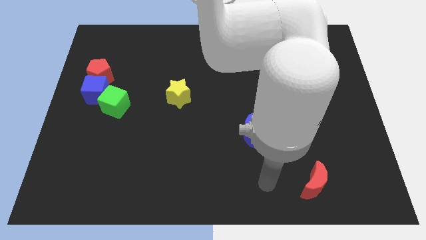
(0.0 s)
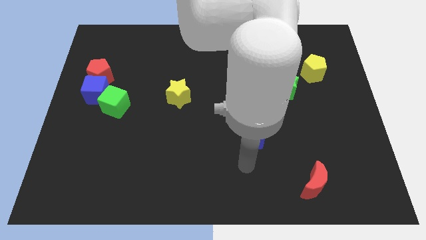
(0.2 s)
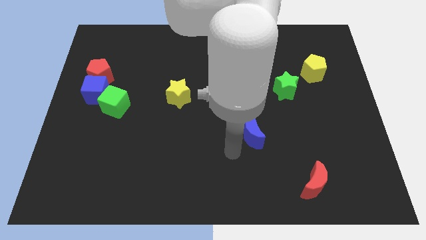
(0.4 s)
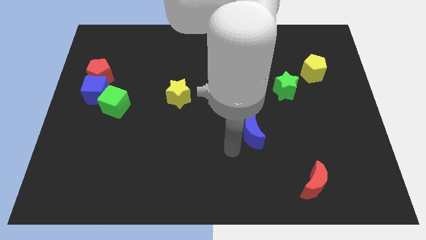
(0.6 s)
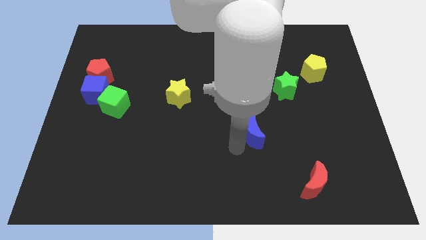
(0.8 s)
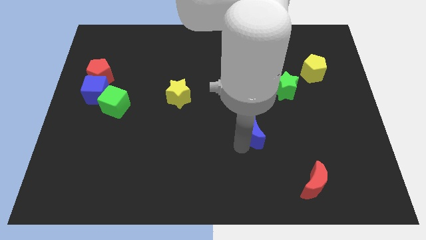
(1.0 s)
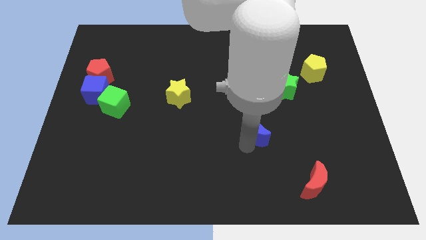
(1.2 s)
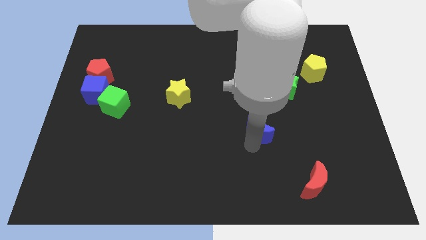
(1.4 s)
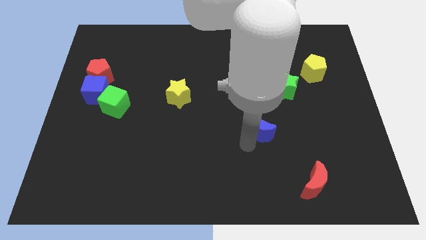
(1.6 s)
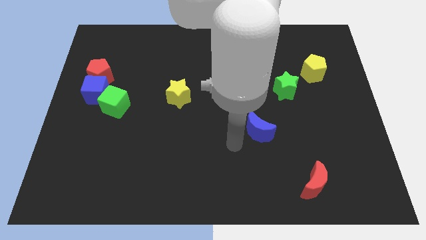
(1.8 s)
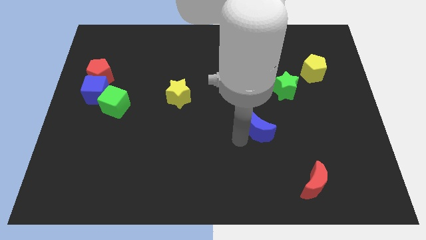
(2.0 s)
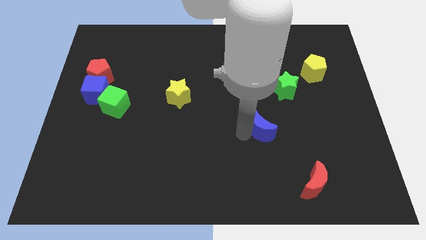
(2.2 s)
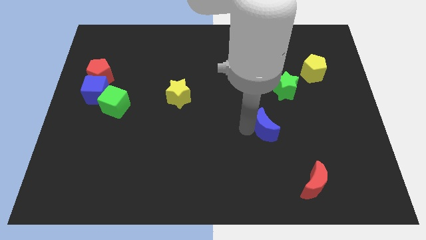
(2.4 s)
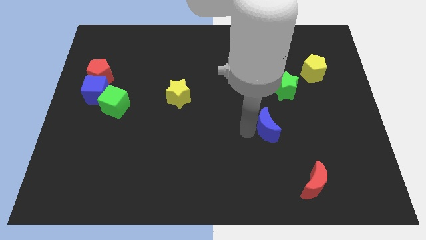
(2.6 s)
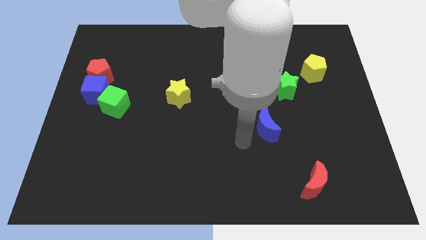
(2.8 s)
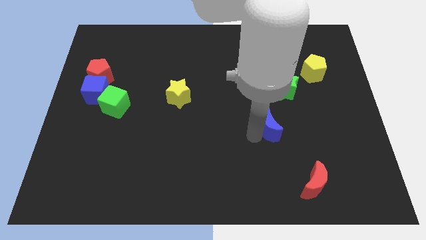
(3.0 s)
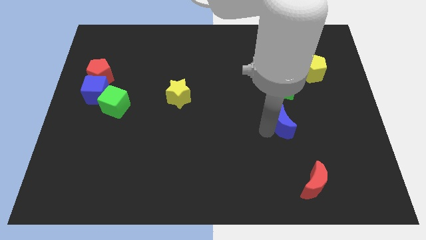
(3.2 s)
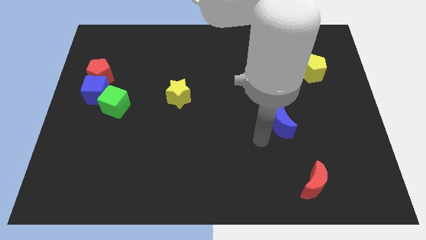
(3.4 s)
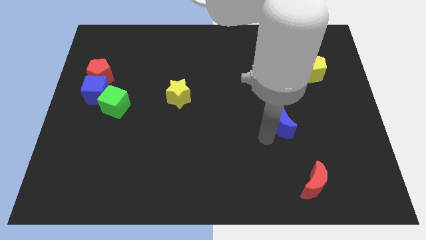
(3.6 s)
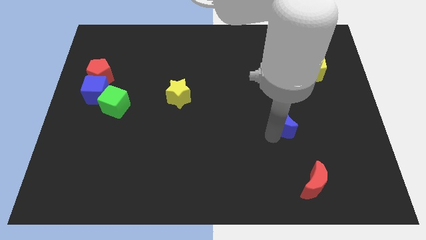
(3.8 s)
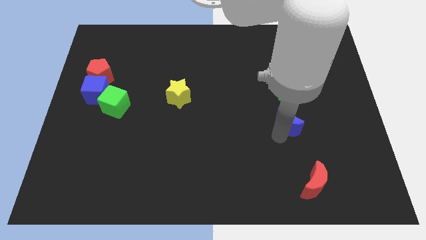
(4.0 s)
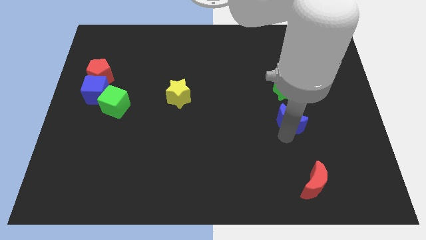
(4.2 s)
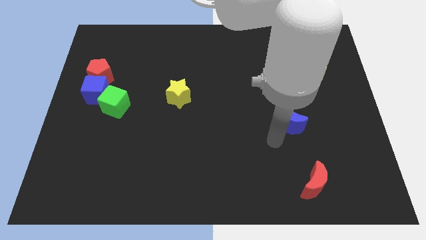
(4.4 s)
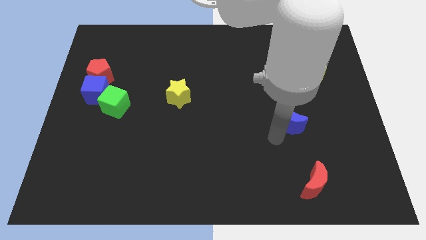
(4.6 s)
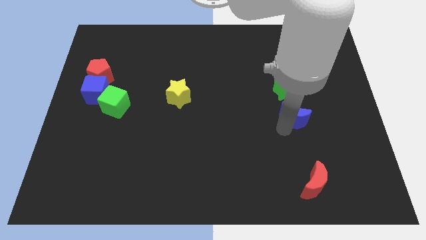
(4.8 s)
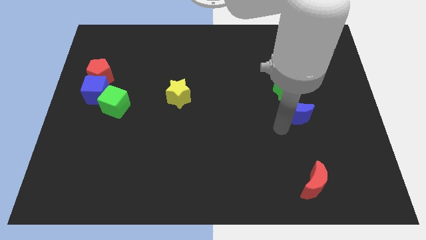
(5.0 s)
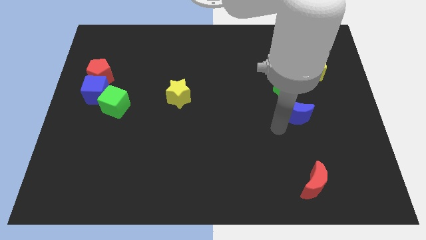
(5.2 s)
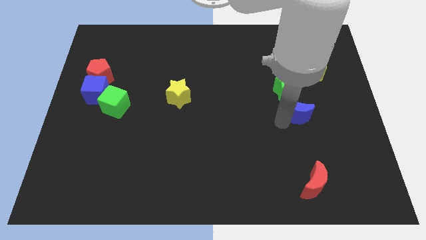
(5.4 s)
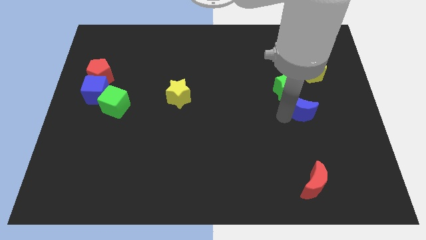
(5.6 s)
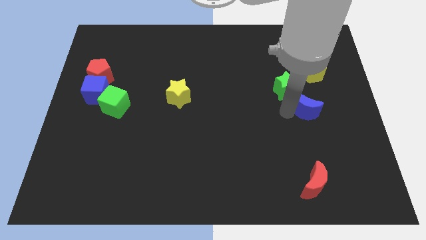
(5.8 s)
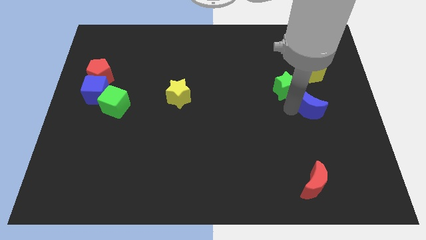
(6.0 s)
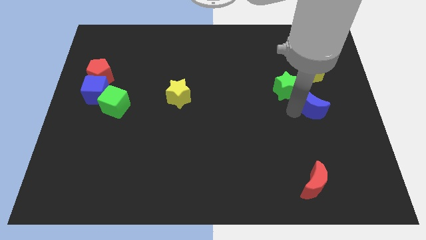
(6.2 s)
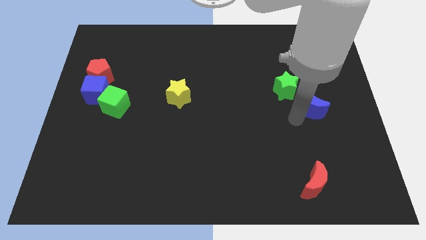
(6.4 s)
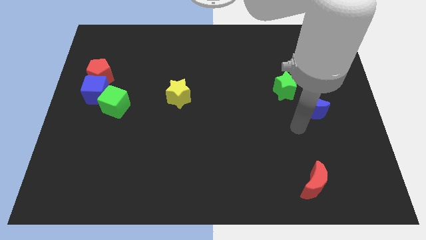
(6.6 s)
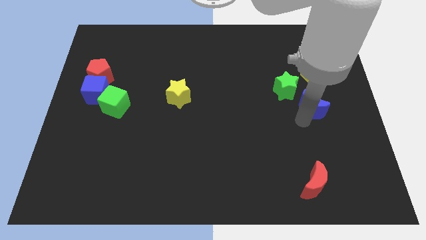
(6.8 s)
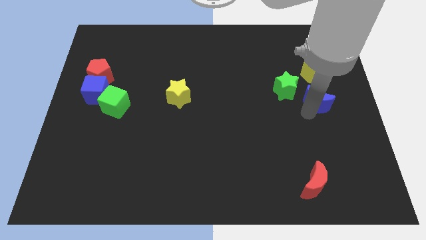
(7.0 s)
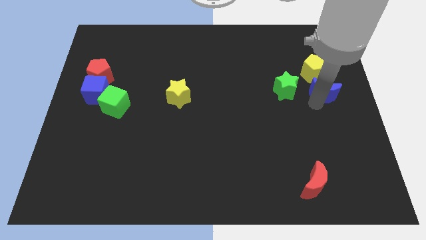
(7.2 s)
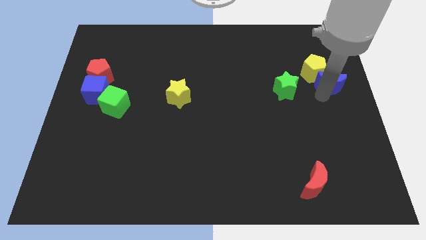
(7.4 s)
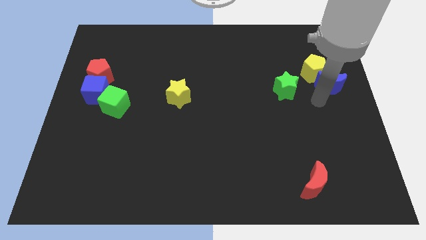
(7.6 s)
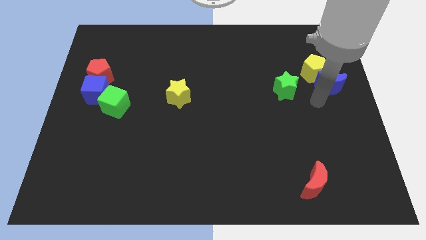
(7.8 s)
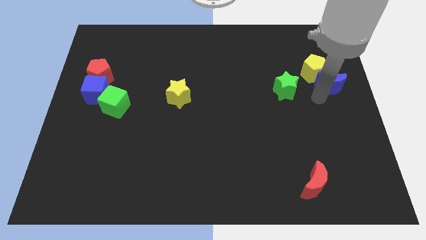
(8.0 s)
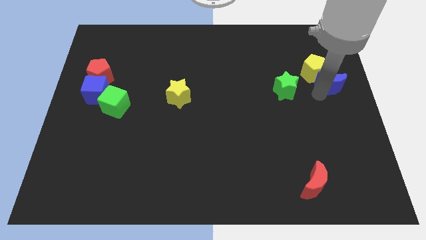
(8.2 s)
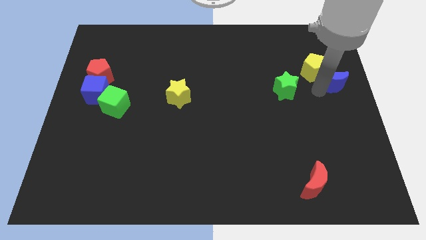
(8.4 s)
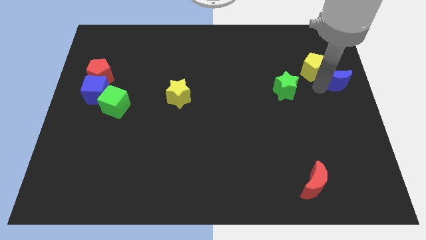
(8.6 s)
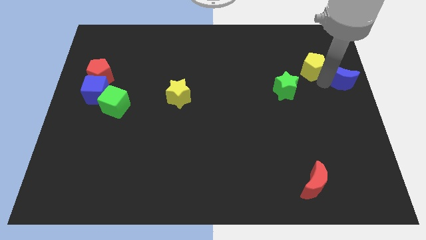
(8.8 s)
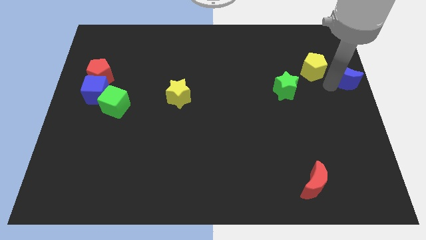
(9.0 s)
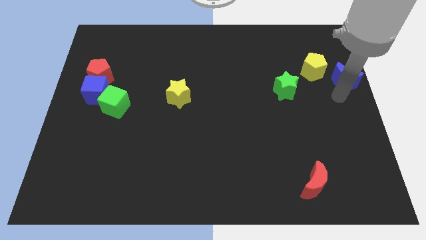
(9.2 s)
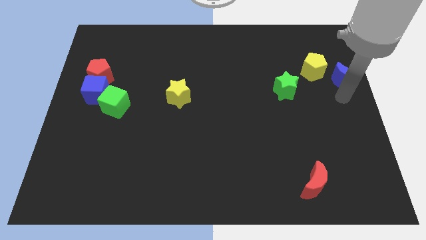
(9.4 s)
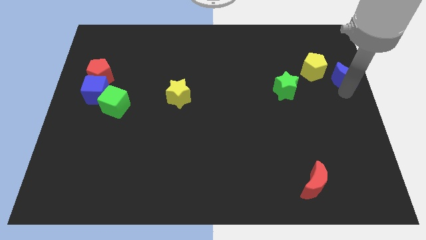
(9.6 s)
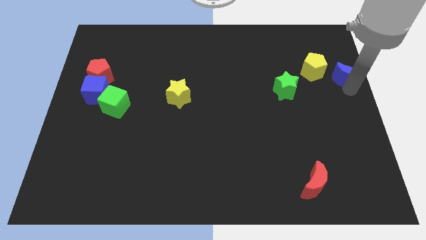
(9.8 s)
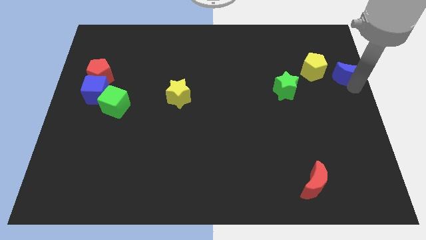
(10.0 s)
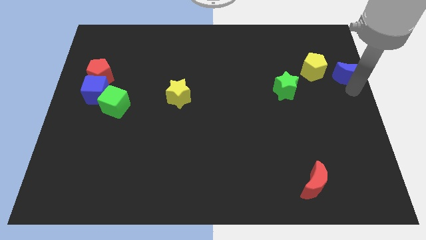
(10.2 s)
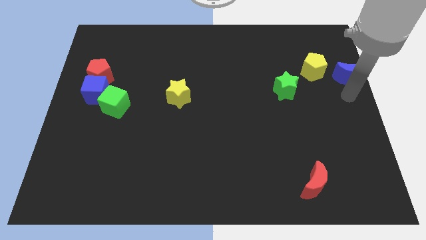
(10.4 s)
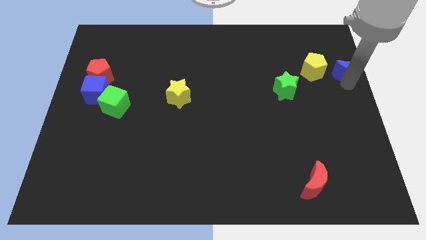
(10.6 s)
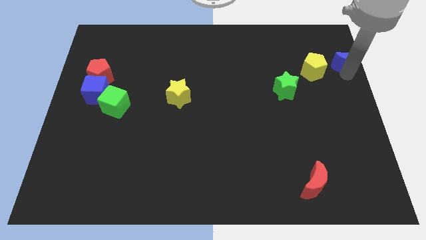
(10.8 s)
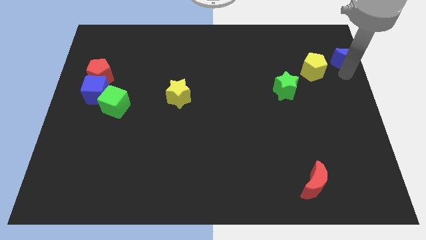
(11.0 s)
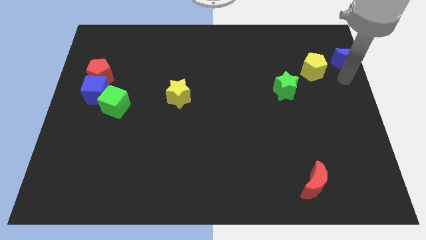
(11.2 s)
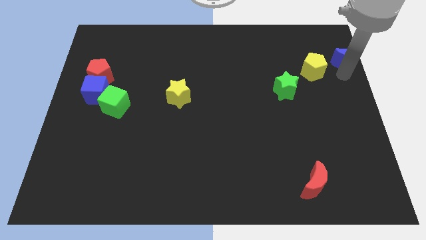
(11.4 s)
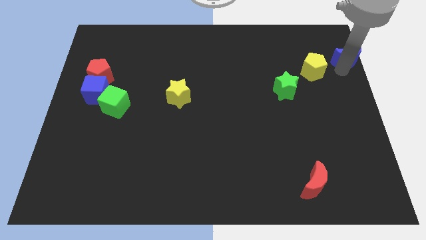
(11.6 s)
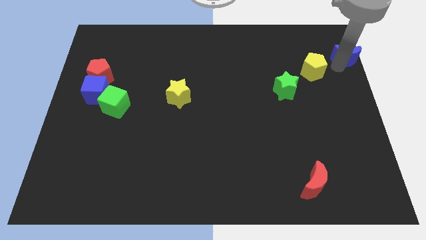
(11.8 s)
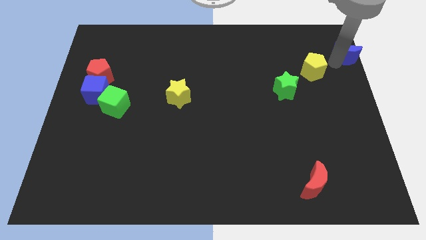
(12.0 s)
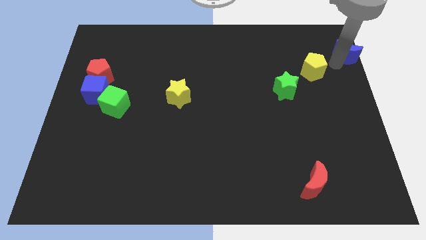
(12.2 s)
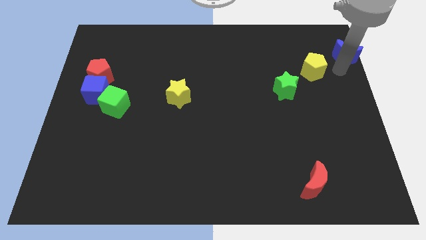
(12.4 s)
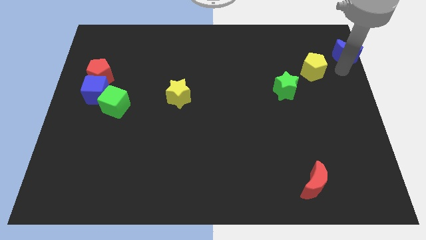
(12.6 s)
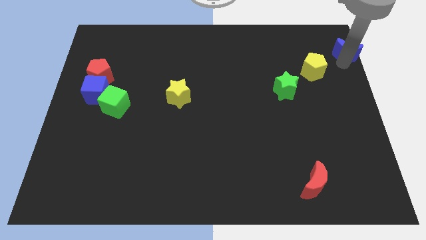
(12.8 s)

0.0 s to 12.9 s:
put the blue moon to the upper right corner
